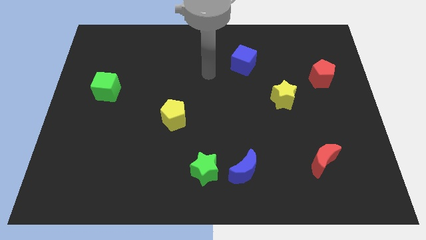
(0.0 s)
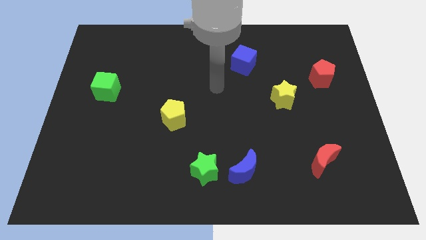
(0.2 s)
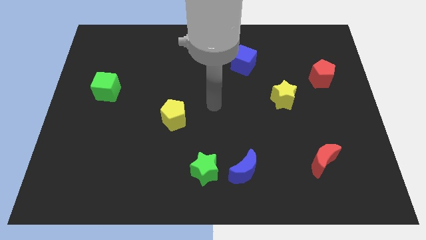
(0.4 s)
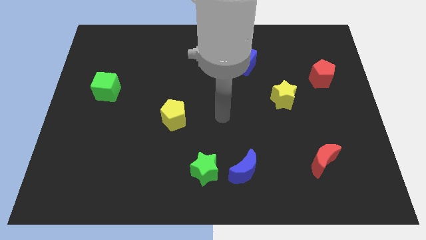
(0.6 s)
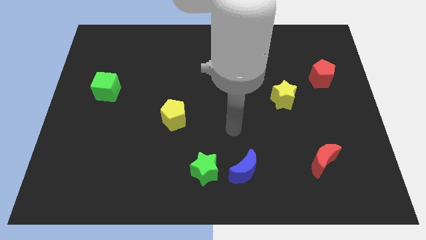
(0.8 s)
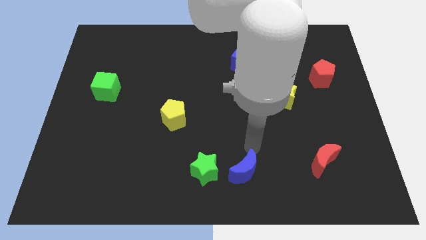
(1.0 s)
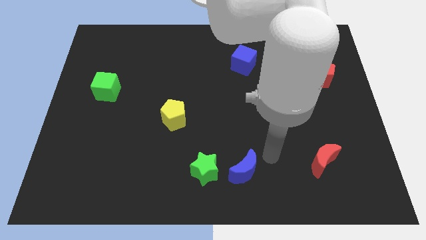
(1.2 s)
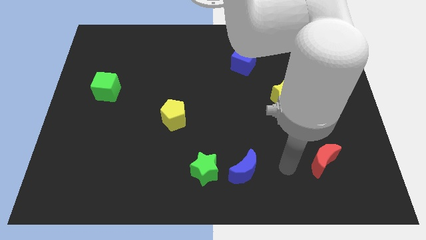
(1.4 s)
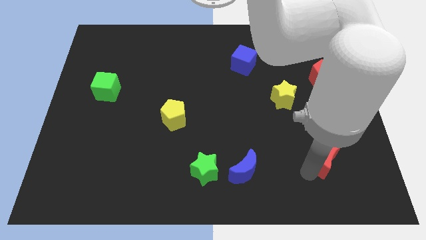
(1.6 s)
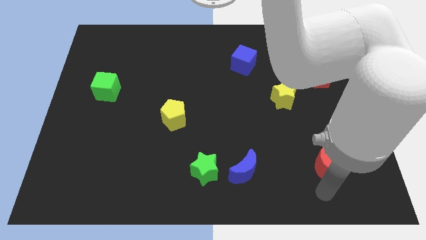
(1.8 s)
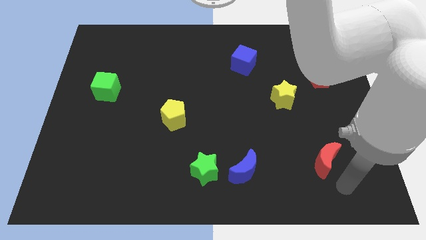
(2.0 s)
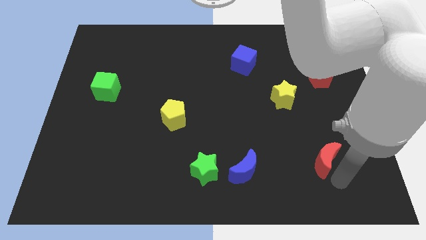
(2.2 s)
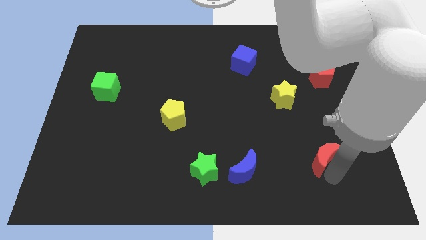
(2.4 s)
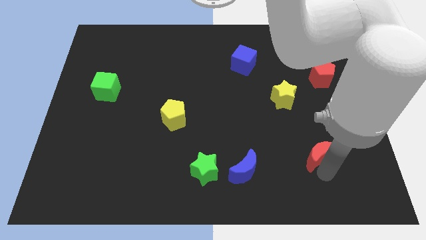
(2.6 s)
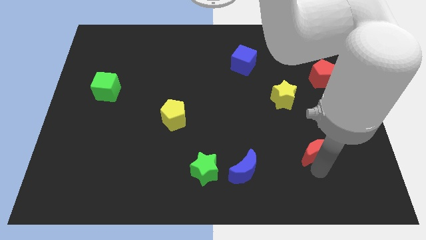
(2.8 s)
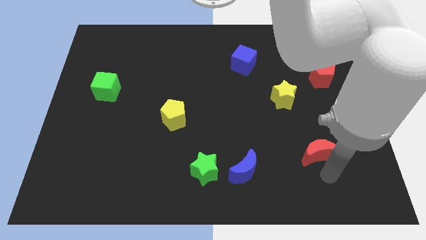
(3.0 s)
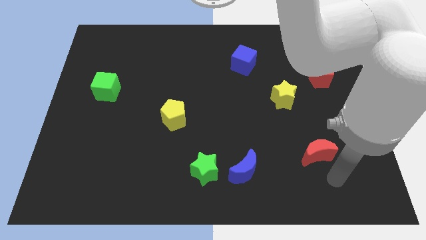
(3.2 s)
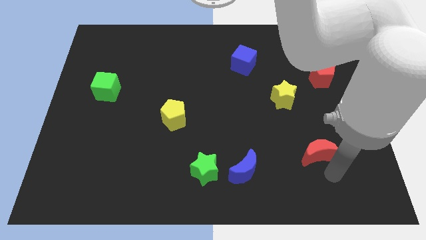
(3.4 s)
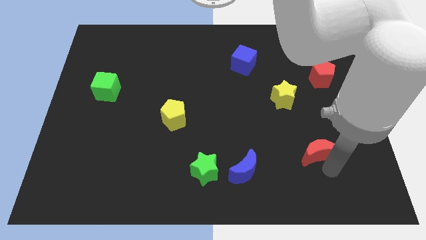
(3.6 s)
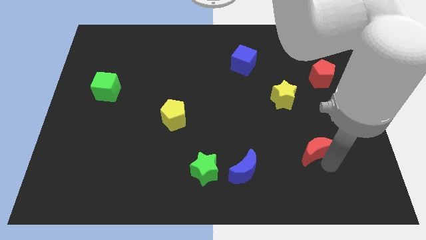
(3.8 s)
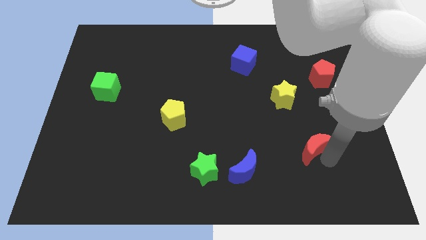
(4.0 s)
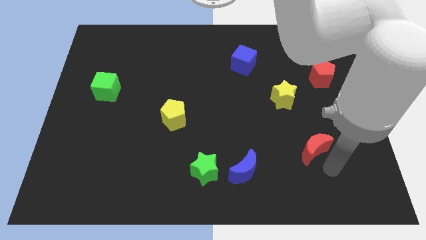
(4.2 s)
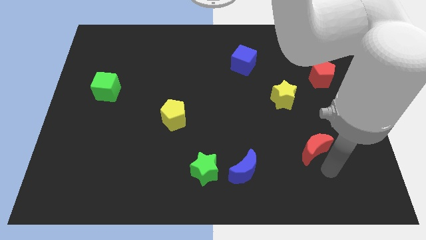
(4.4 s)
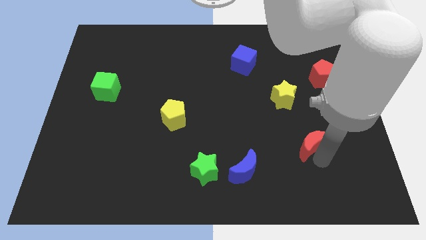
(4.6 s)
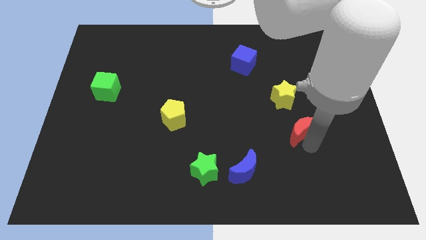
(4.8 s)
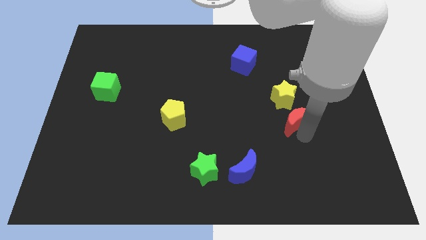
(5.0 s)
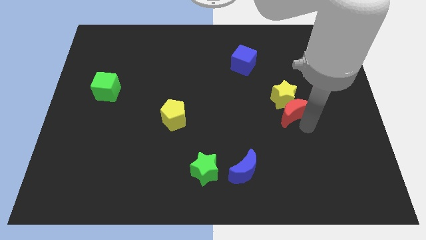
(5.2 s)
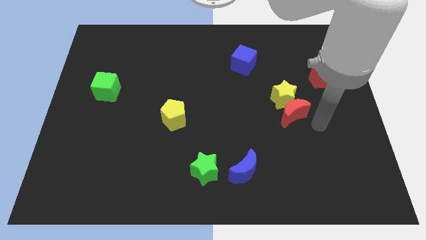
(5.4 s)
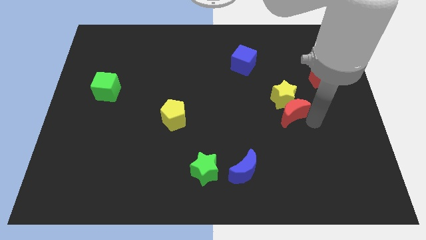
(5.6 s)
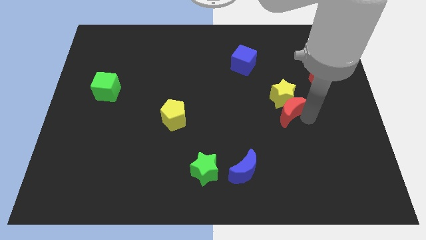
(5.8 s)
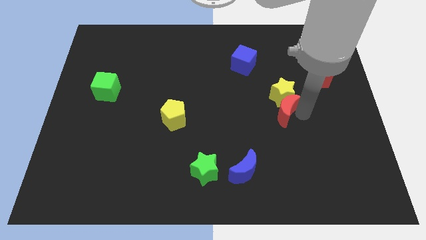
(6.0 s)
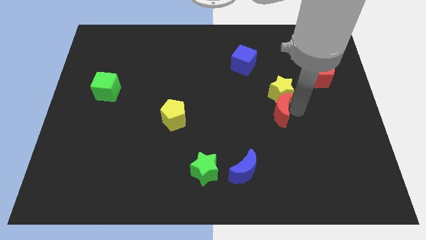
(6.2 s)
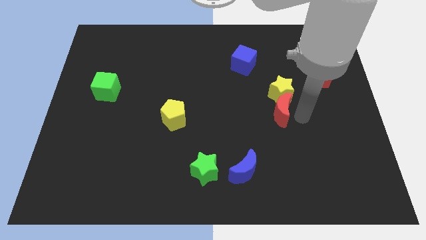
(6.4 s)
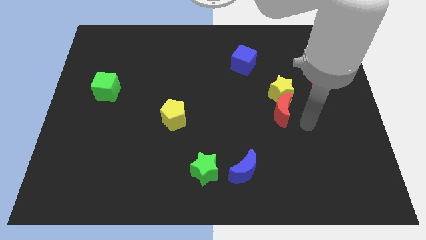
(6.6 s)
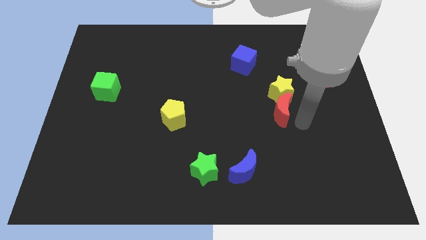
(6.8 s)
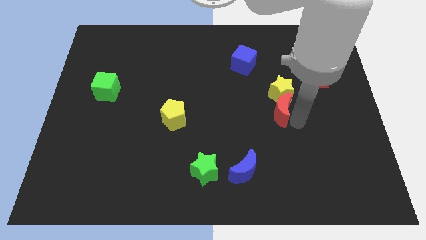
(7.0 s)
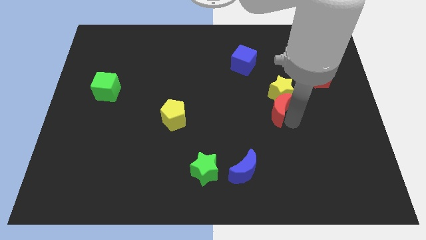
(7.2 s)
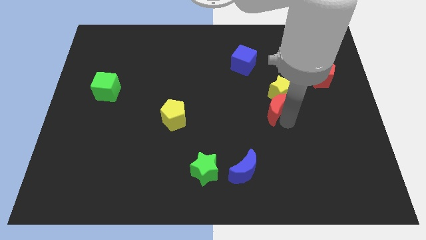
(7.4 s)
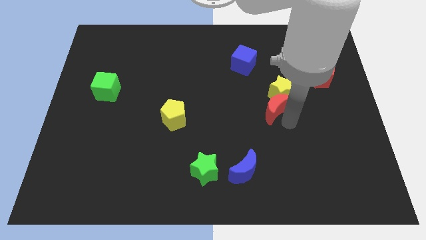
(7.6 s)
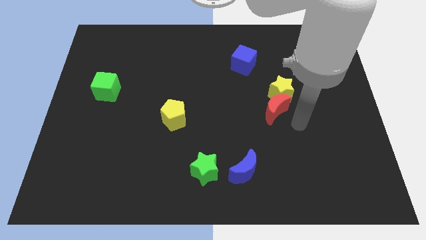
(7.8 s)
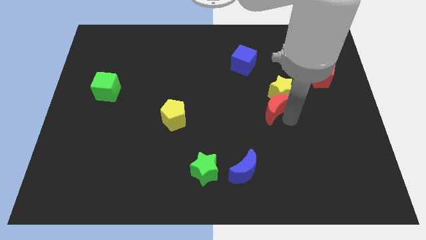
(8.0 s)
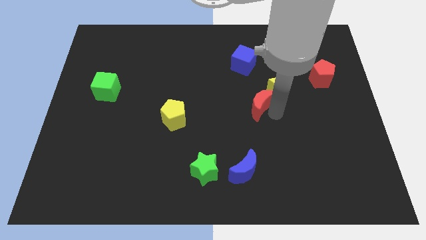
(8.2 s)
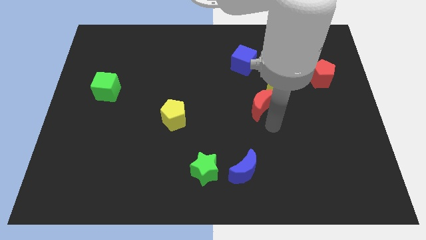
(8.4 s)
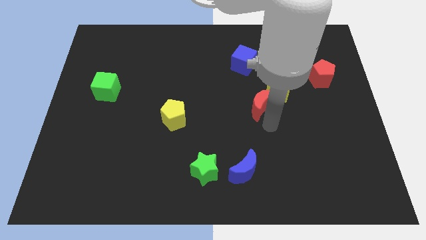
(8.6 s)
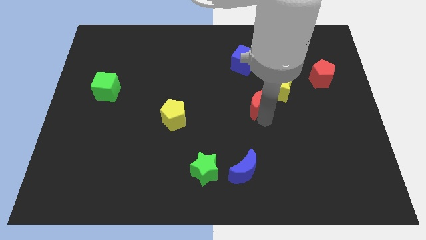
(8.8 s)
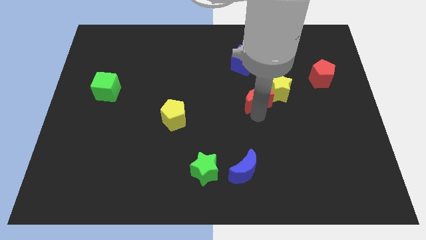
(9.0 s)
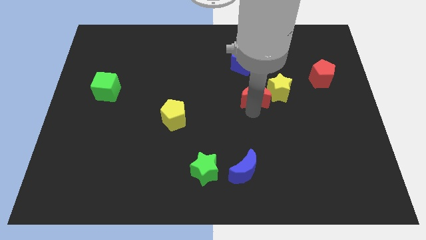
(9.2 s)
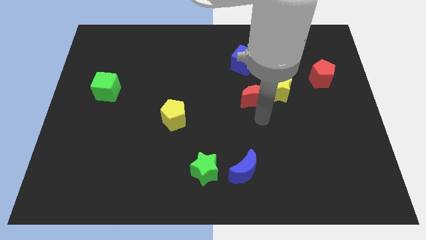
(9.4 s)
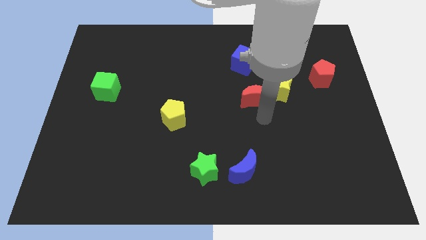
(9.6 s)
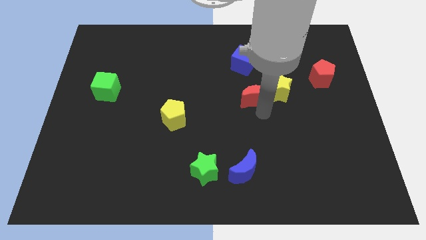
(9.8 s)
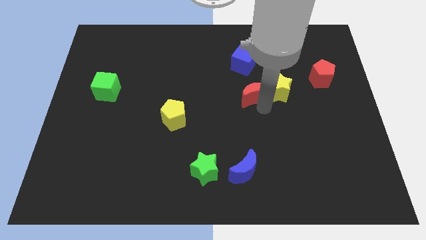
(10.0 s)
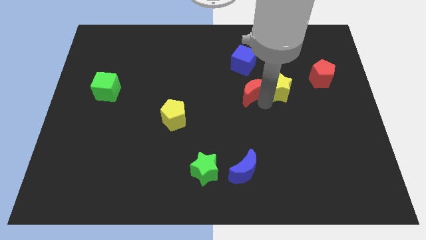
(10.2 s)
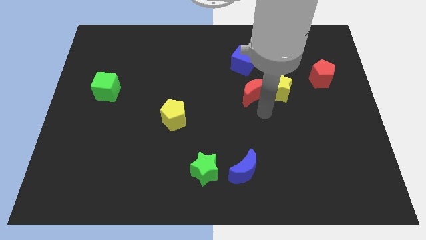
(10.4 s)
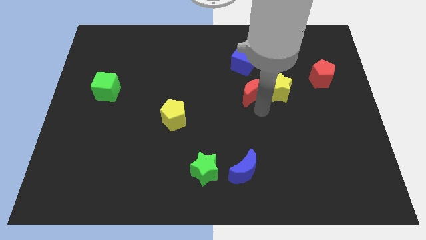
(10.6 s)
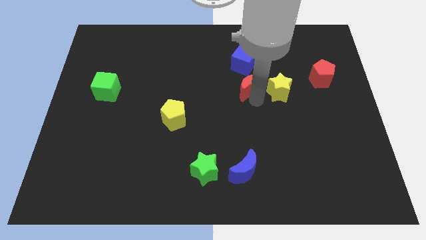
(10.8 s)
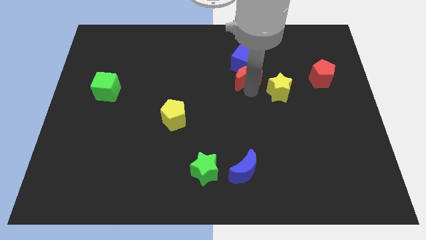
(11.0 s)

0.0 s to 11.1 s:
move the red moon close to the blue cube

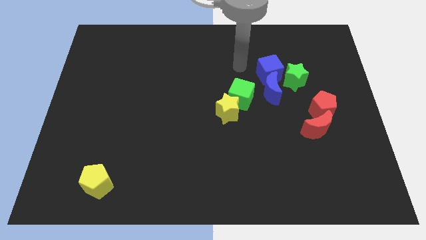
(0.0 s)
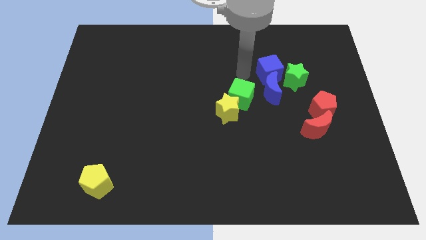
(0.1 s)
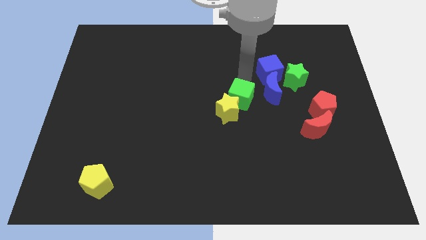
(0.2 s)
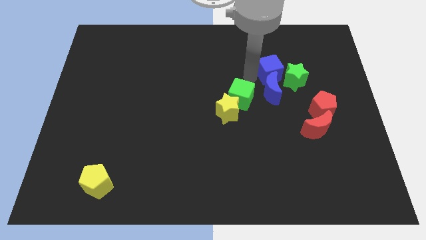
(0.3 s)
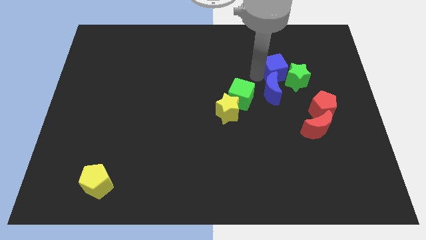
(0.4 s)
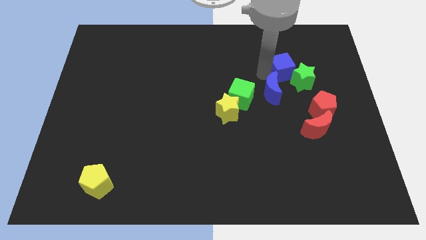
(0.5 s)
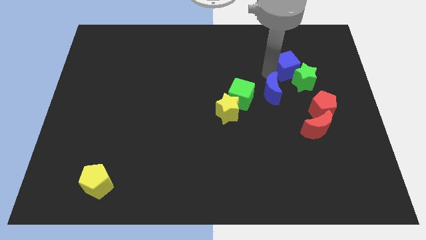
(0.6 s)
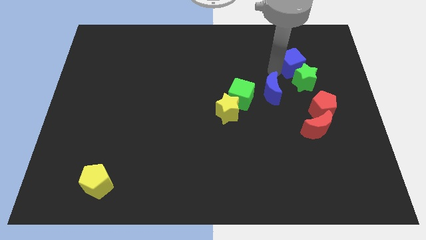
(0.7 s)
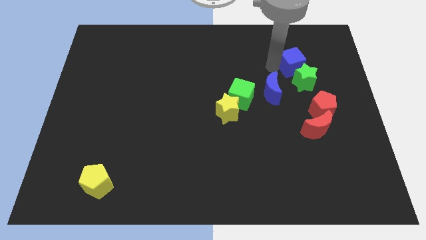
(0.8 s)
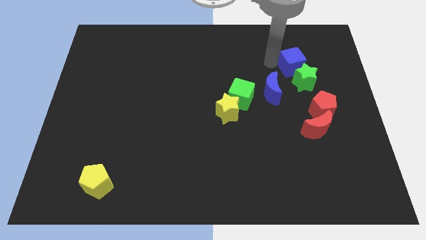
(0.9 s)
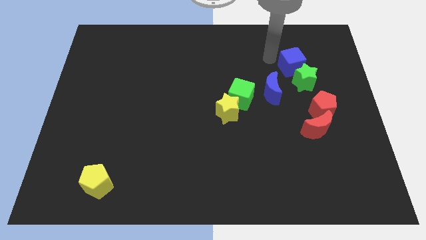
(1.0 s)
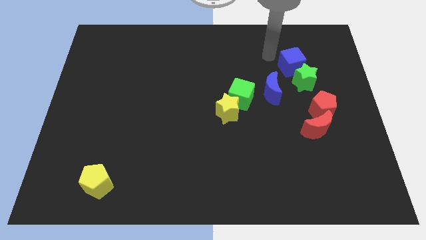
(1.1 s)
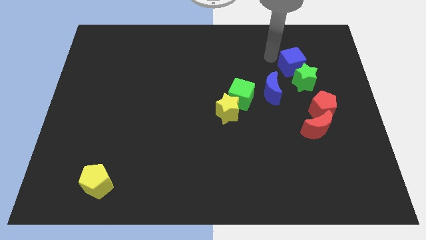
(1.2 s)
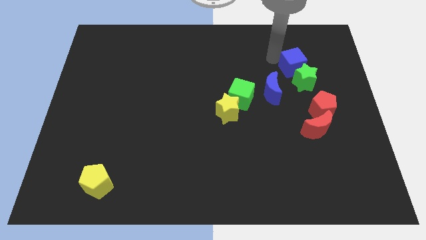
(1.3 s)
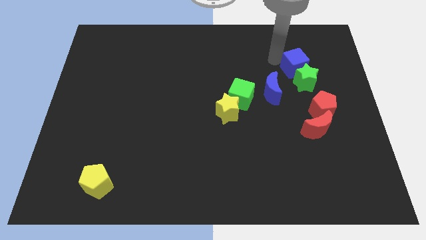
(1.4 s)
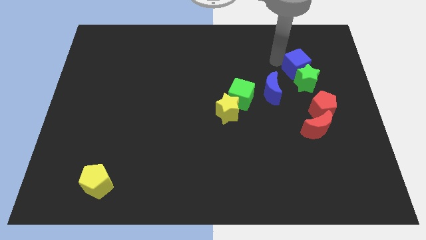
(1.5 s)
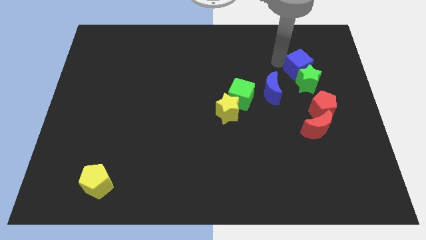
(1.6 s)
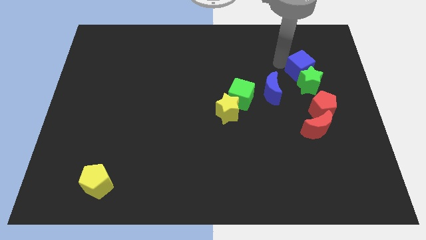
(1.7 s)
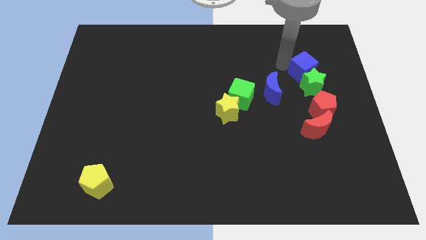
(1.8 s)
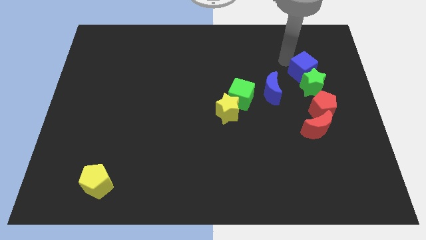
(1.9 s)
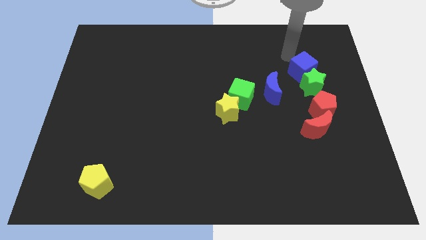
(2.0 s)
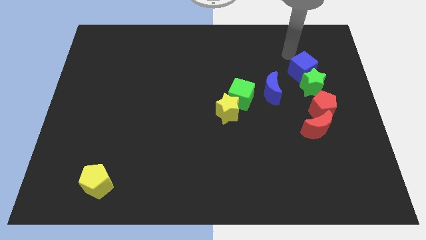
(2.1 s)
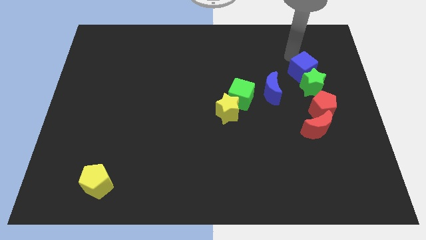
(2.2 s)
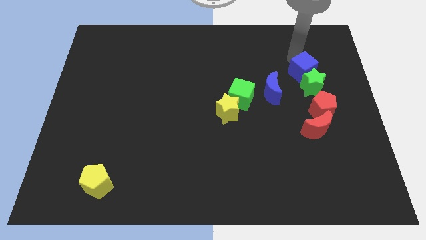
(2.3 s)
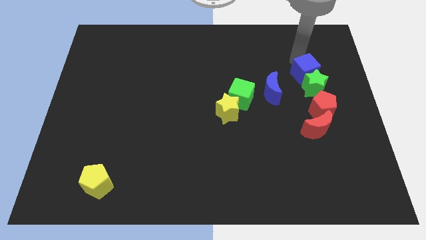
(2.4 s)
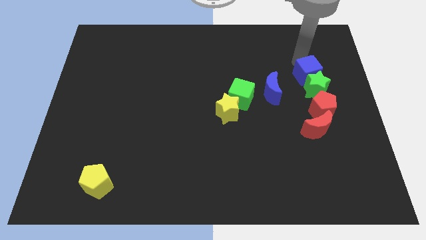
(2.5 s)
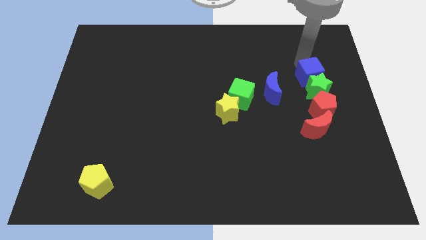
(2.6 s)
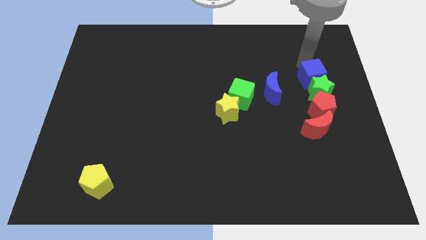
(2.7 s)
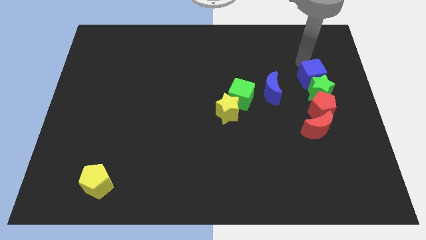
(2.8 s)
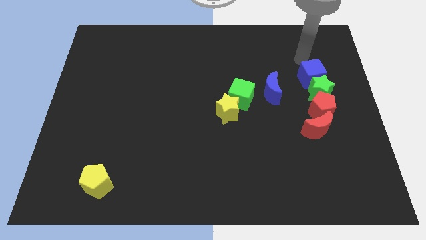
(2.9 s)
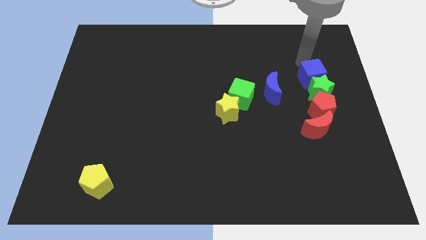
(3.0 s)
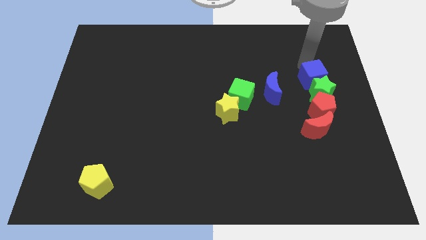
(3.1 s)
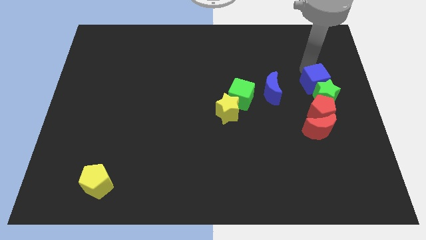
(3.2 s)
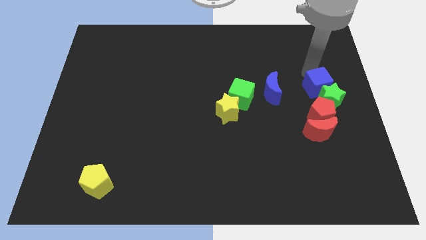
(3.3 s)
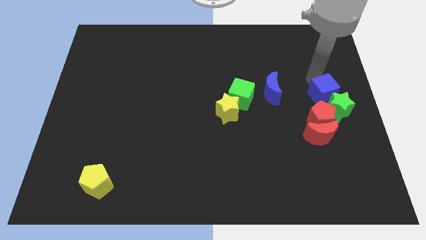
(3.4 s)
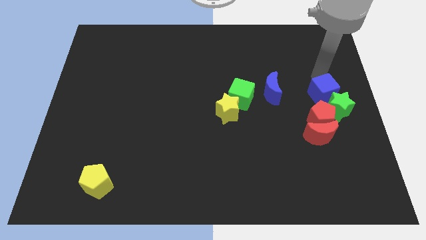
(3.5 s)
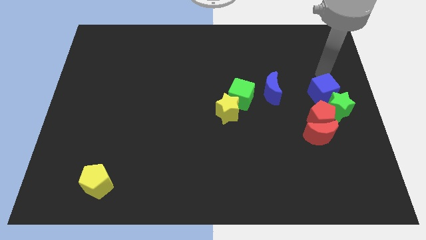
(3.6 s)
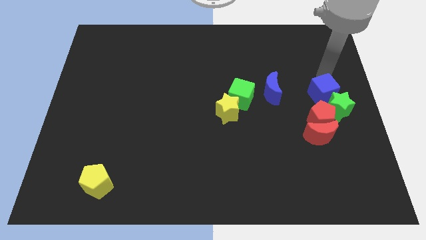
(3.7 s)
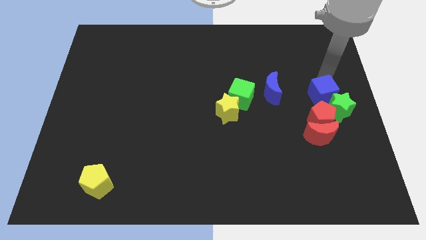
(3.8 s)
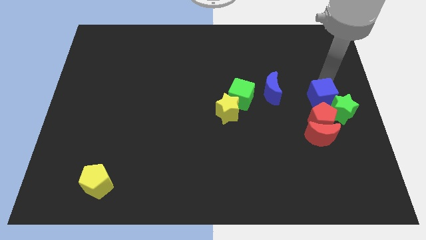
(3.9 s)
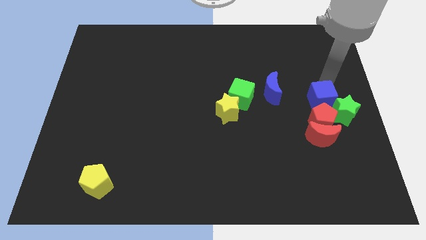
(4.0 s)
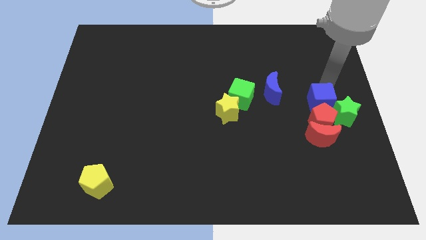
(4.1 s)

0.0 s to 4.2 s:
push the blue cube next to the red pentagon
